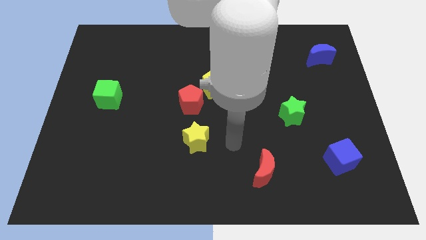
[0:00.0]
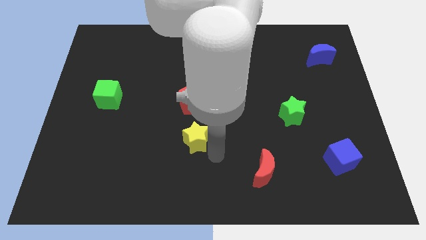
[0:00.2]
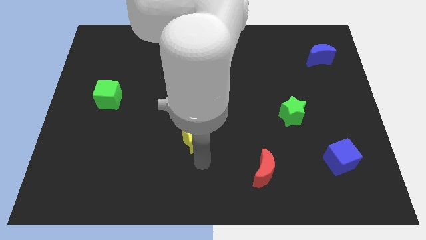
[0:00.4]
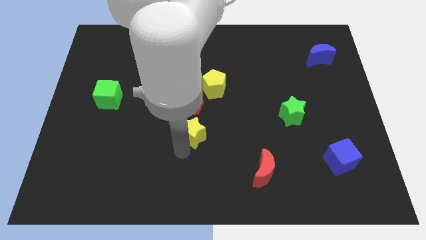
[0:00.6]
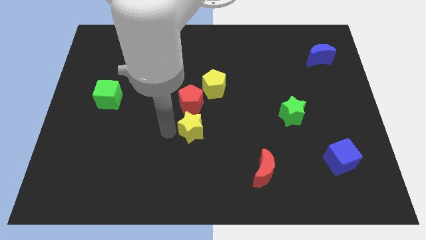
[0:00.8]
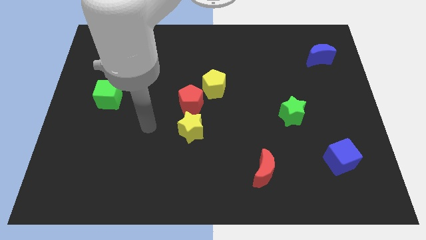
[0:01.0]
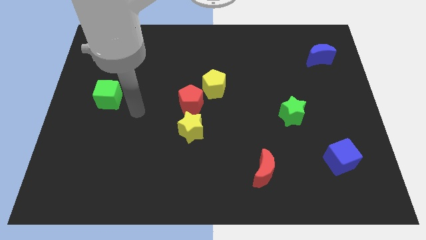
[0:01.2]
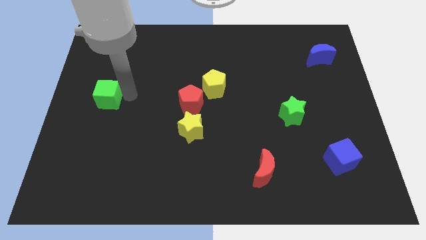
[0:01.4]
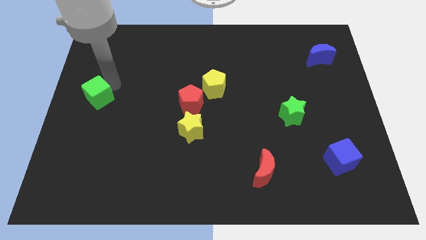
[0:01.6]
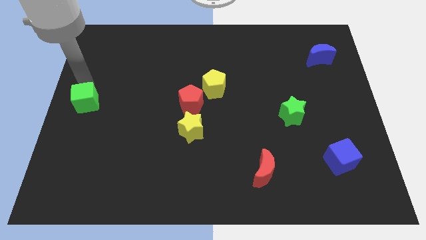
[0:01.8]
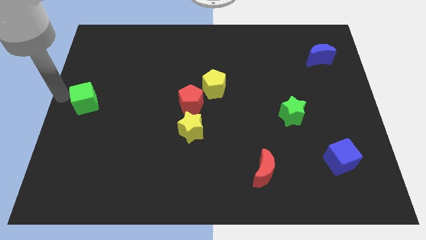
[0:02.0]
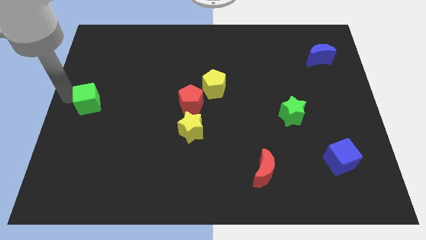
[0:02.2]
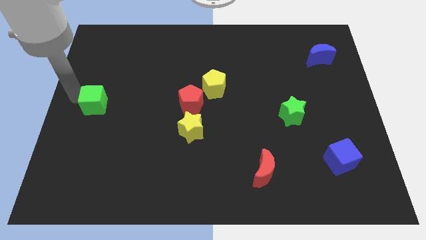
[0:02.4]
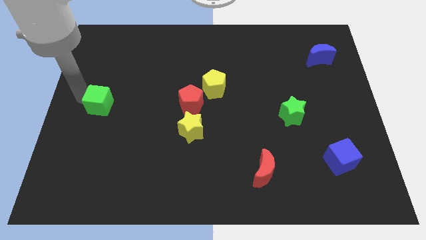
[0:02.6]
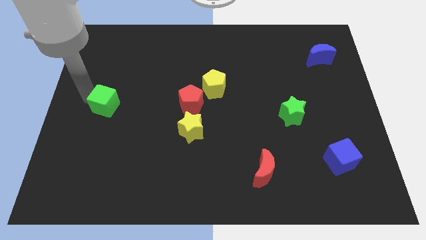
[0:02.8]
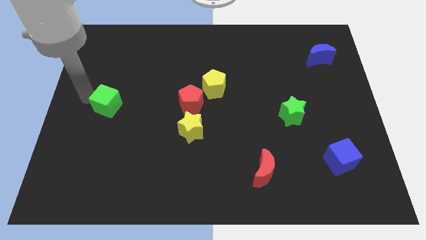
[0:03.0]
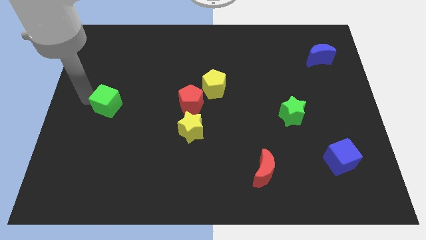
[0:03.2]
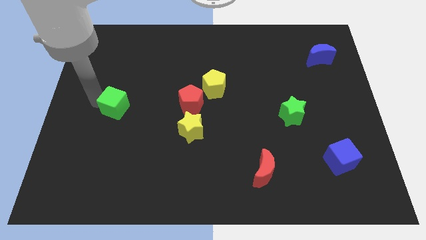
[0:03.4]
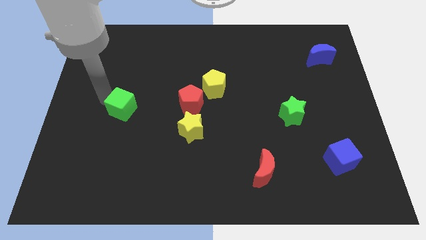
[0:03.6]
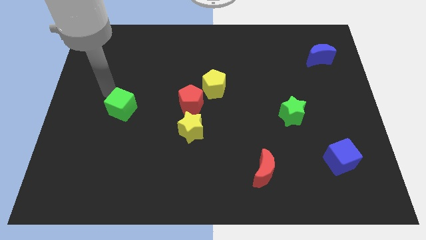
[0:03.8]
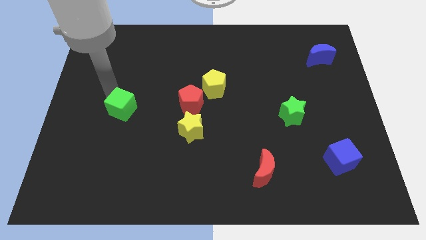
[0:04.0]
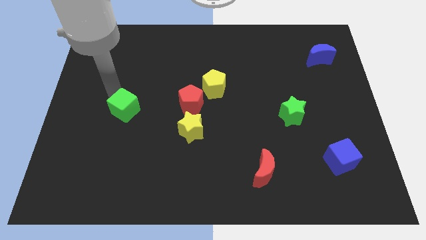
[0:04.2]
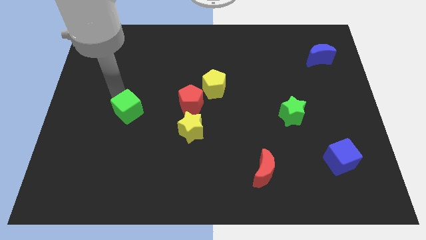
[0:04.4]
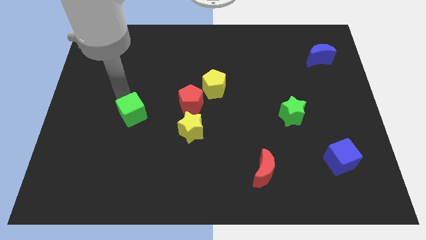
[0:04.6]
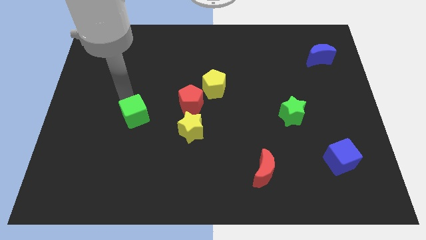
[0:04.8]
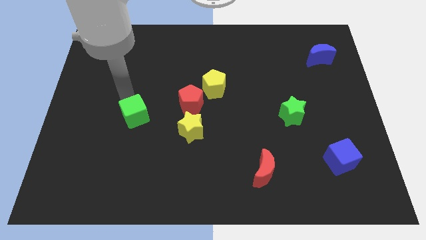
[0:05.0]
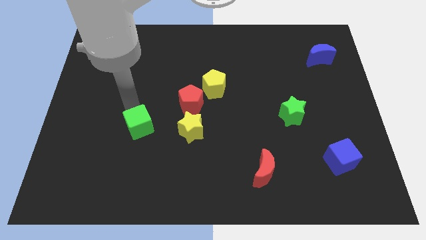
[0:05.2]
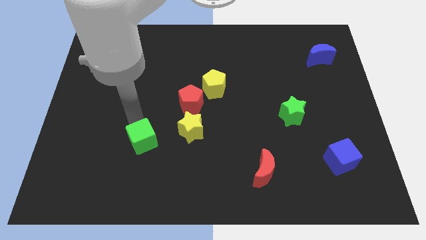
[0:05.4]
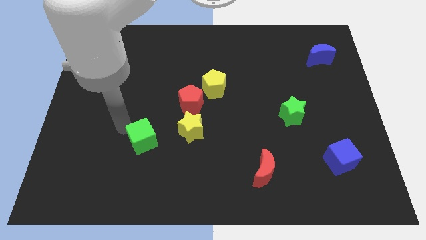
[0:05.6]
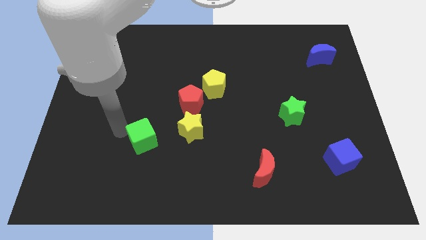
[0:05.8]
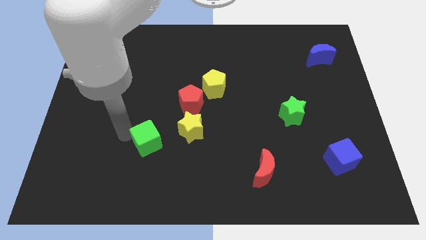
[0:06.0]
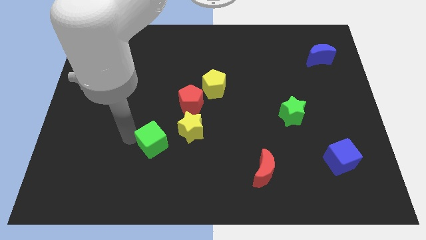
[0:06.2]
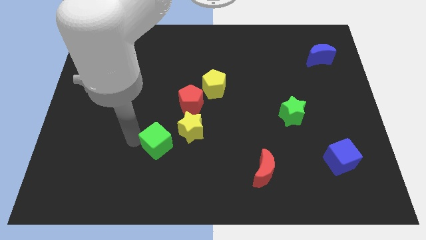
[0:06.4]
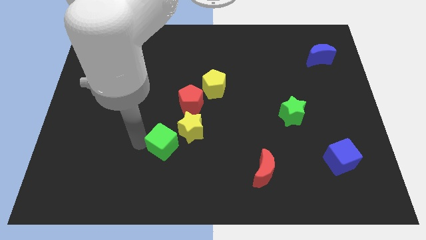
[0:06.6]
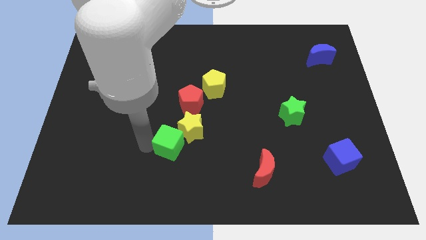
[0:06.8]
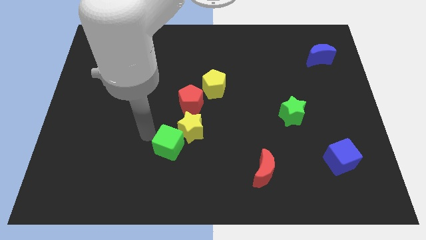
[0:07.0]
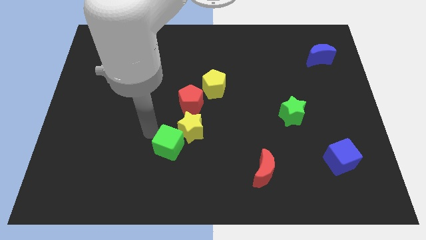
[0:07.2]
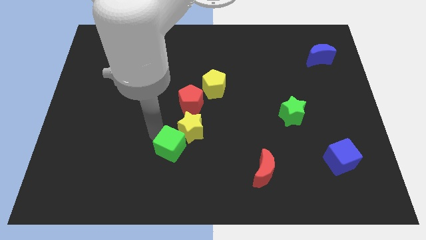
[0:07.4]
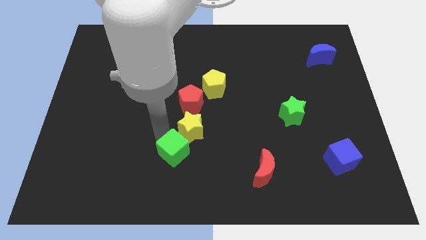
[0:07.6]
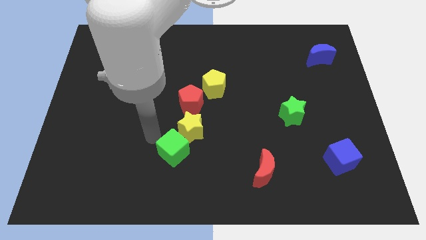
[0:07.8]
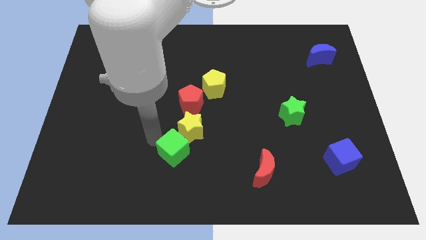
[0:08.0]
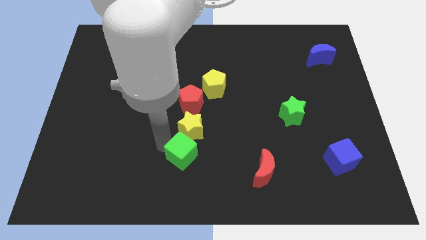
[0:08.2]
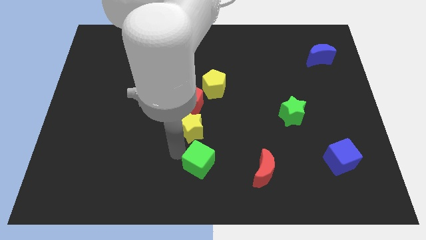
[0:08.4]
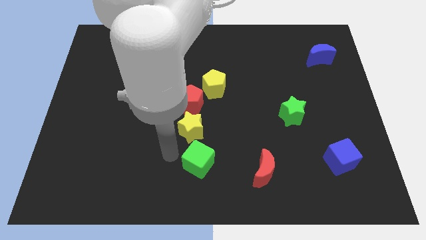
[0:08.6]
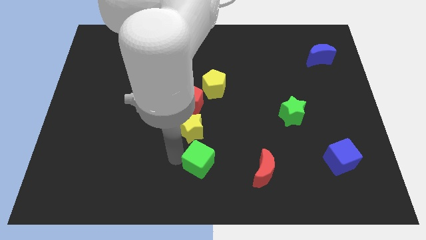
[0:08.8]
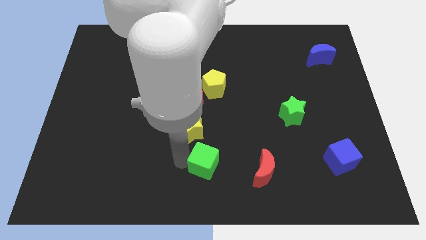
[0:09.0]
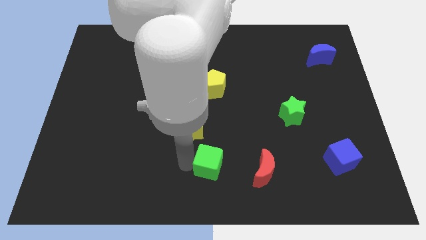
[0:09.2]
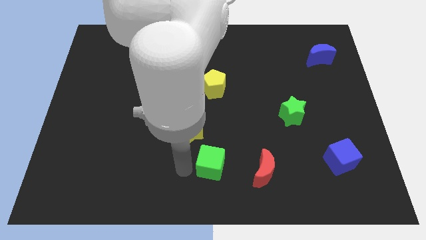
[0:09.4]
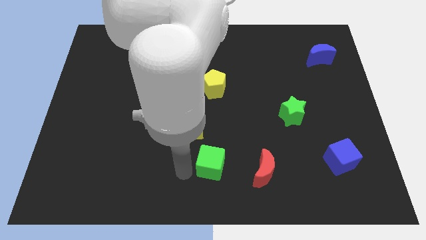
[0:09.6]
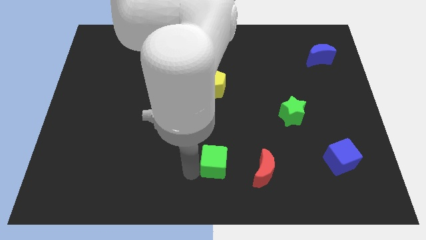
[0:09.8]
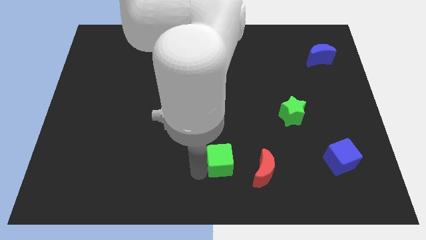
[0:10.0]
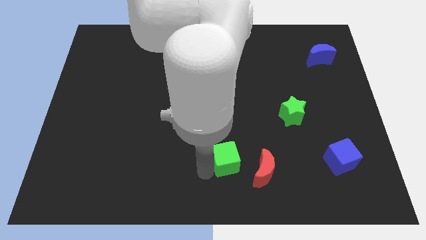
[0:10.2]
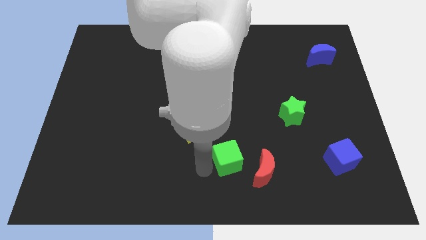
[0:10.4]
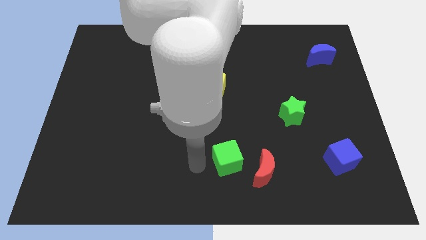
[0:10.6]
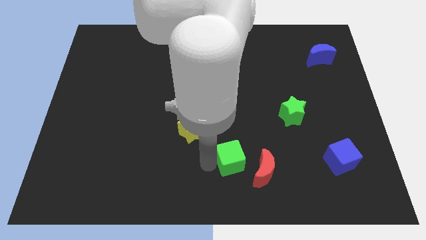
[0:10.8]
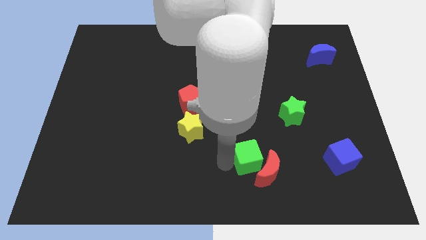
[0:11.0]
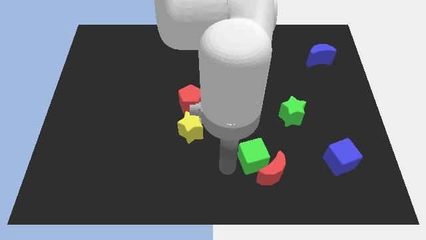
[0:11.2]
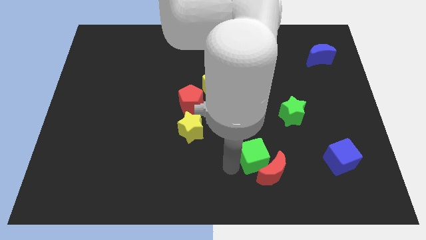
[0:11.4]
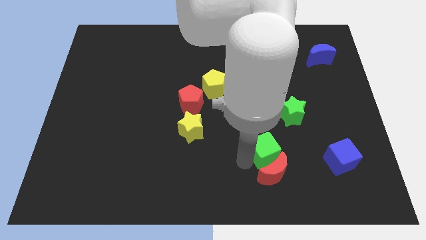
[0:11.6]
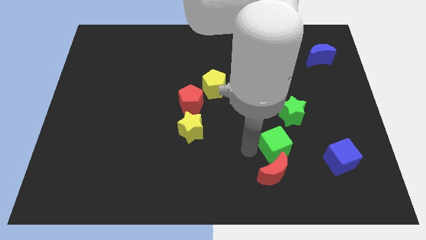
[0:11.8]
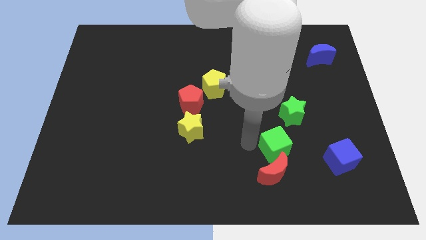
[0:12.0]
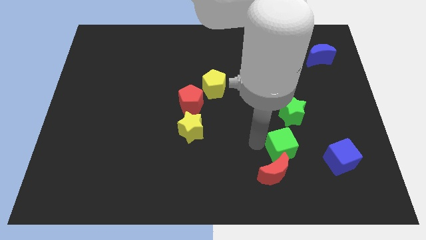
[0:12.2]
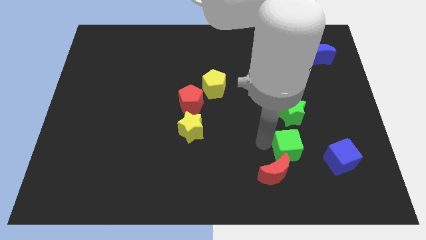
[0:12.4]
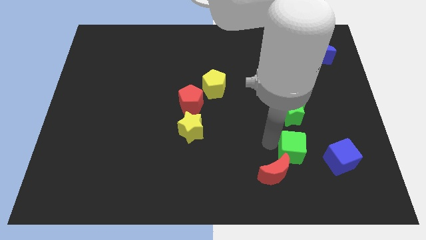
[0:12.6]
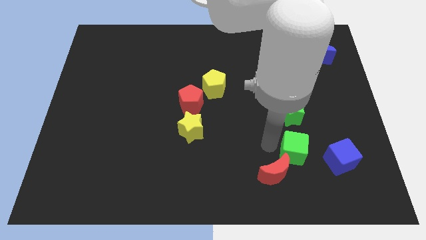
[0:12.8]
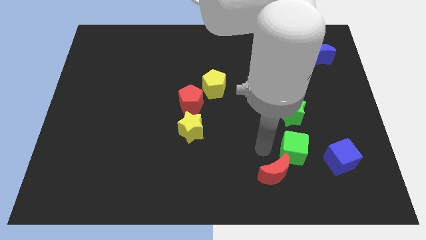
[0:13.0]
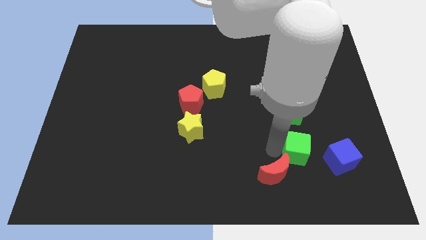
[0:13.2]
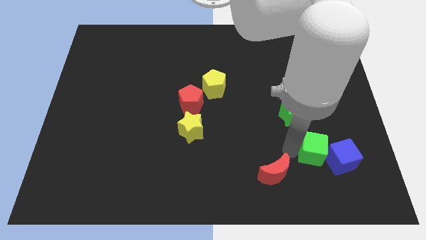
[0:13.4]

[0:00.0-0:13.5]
slide the green cube to the blue cube

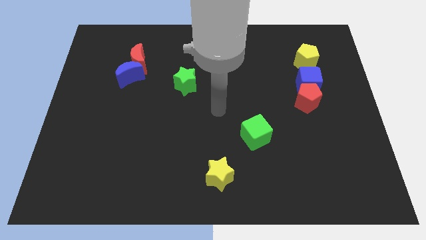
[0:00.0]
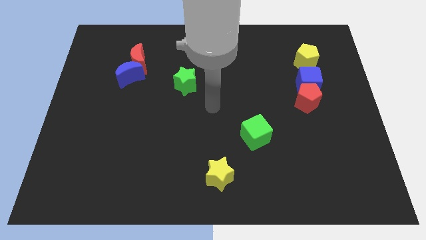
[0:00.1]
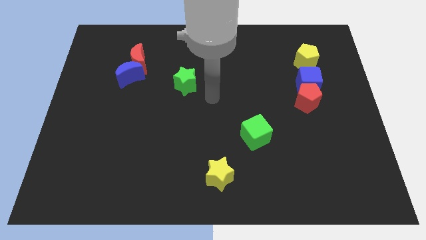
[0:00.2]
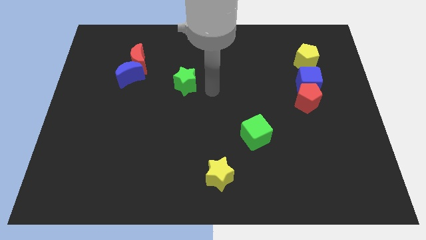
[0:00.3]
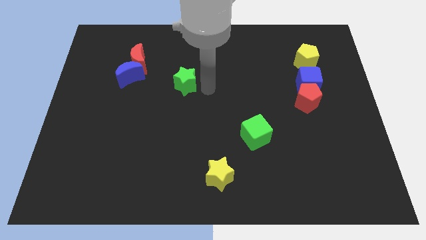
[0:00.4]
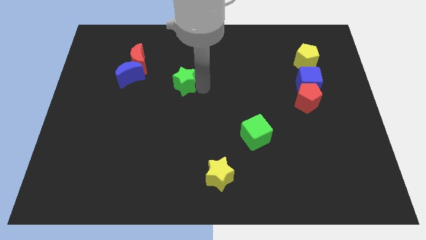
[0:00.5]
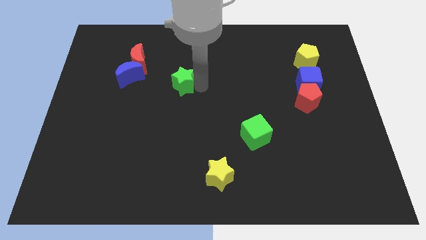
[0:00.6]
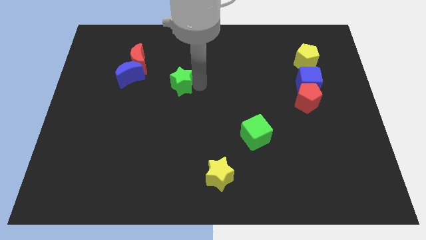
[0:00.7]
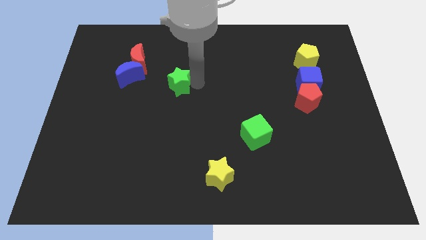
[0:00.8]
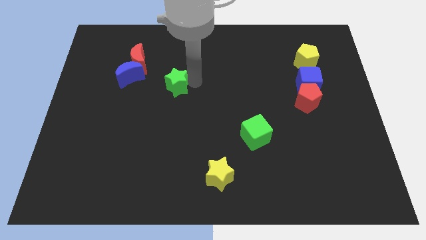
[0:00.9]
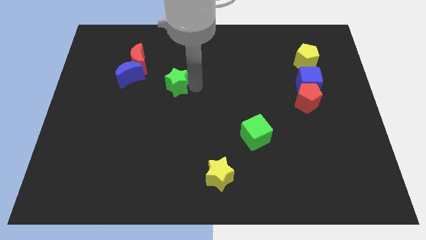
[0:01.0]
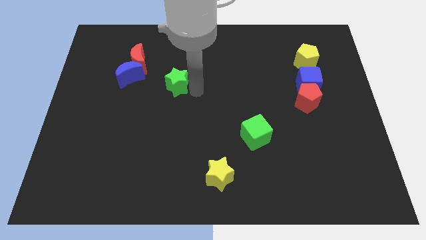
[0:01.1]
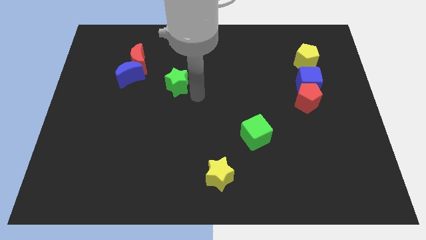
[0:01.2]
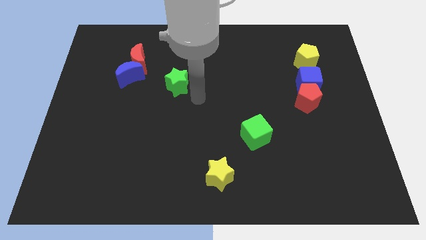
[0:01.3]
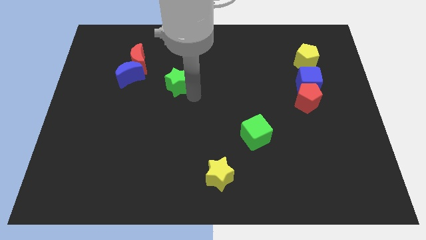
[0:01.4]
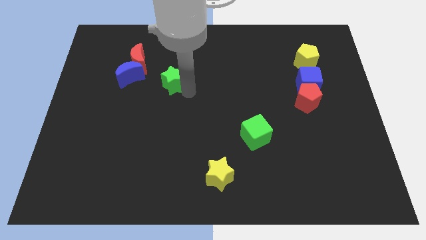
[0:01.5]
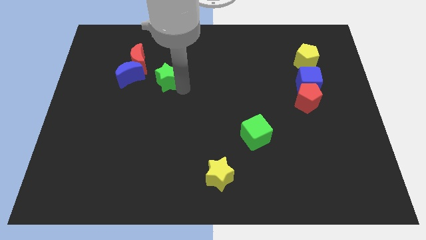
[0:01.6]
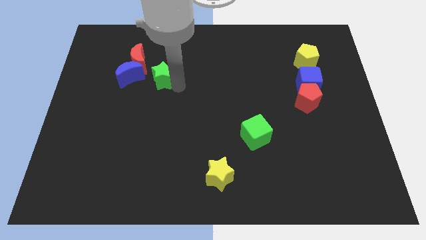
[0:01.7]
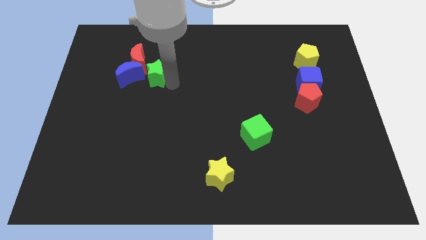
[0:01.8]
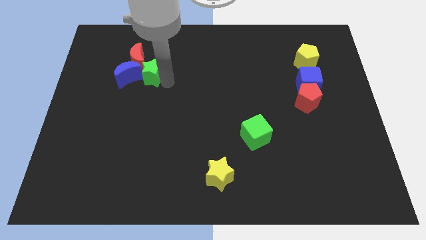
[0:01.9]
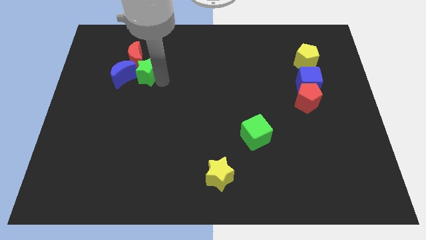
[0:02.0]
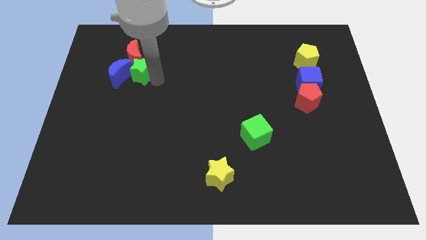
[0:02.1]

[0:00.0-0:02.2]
put the green star to the red moon
